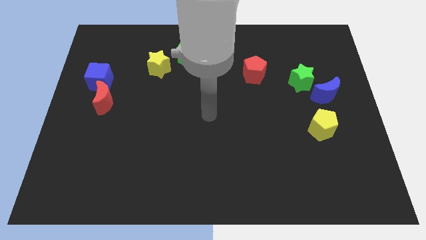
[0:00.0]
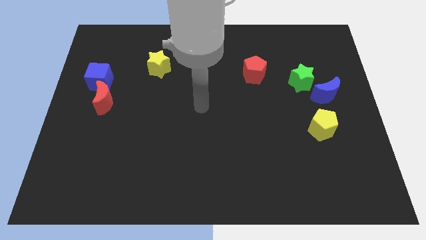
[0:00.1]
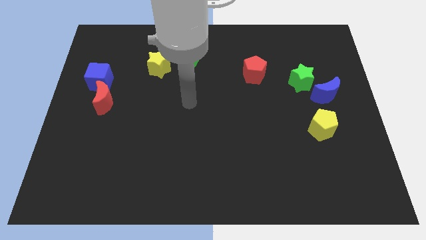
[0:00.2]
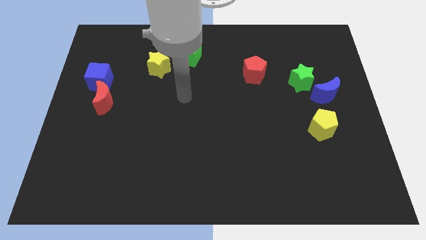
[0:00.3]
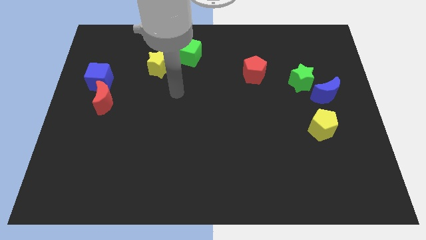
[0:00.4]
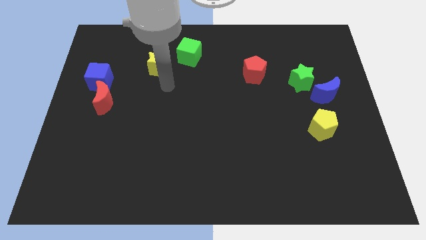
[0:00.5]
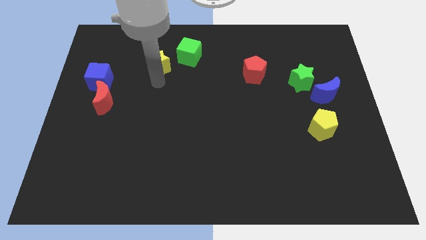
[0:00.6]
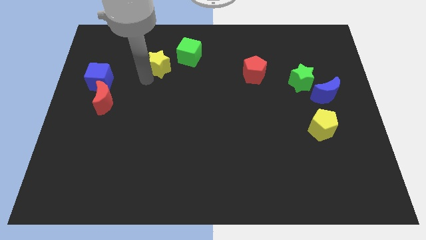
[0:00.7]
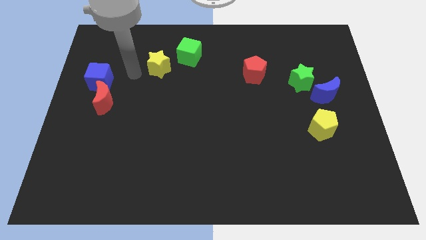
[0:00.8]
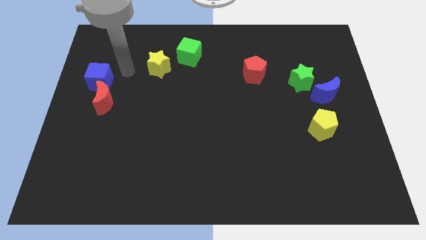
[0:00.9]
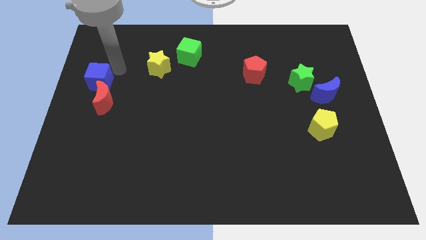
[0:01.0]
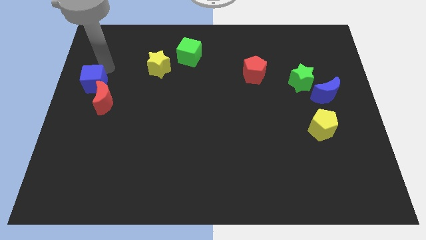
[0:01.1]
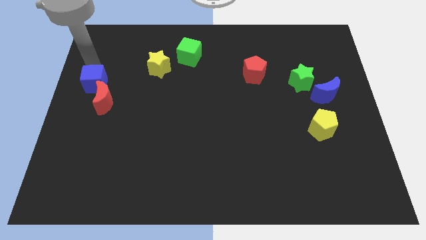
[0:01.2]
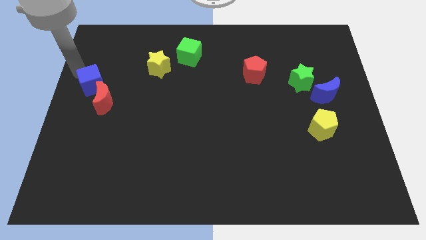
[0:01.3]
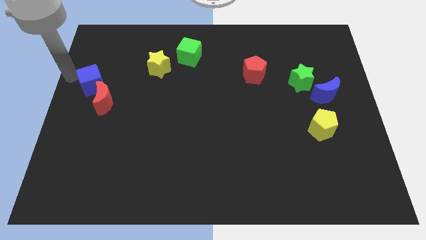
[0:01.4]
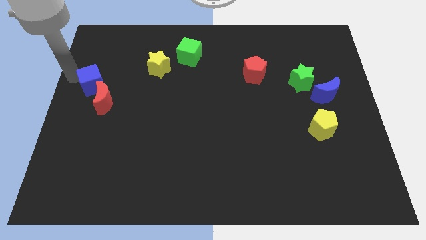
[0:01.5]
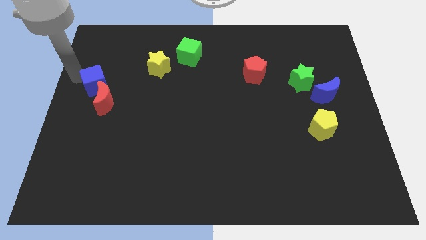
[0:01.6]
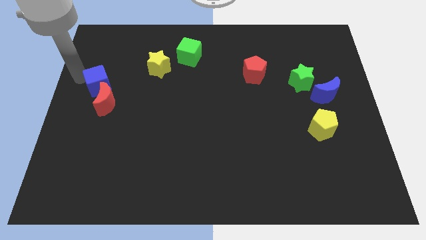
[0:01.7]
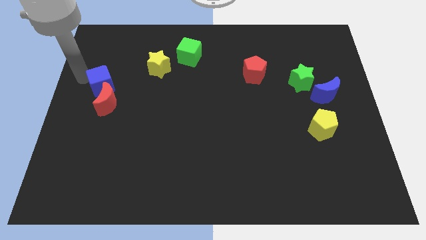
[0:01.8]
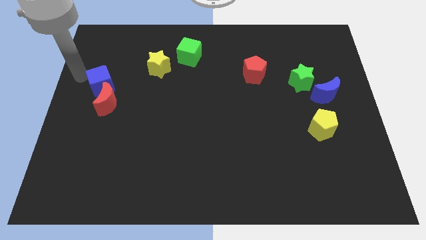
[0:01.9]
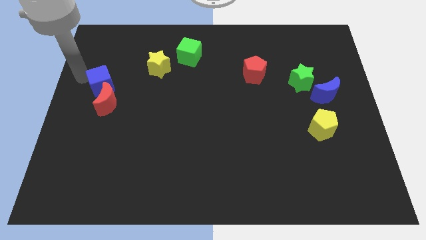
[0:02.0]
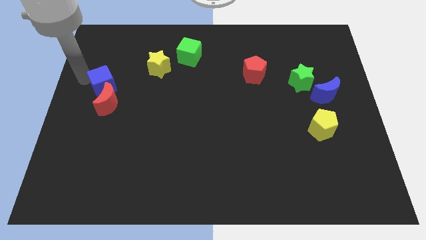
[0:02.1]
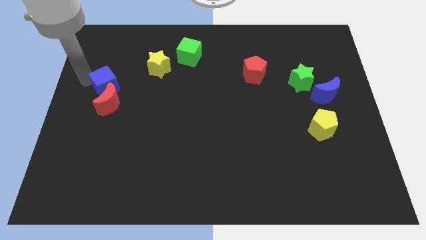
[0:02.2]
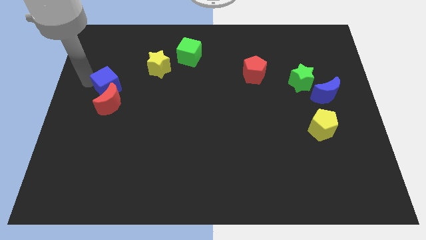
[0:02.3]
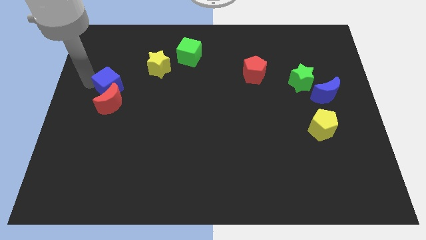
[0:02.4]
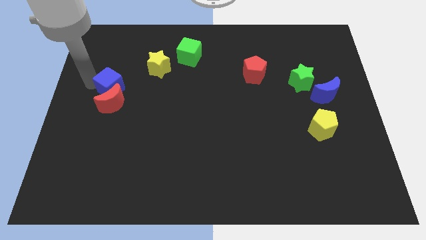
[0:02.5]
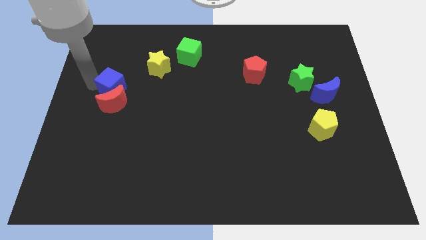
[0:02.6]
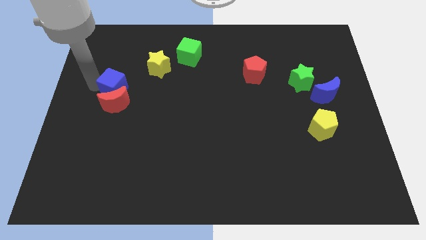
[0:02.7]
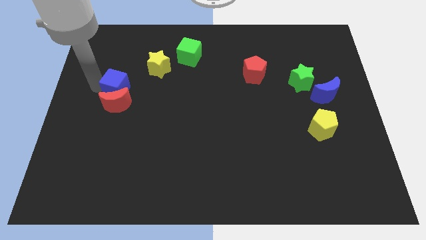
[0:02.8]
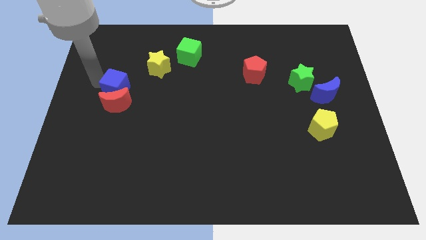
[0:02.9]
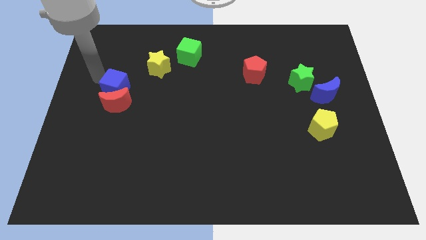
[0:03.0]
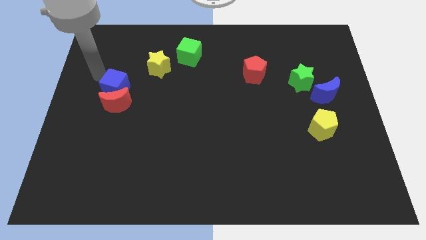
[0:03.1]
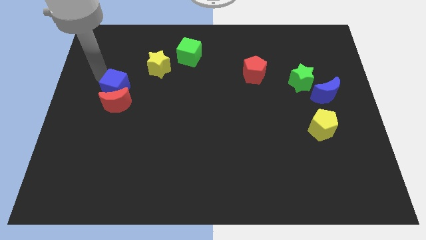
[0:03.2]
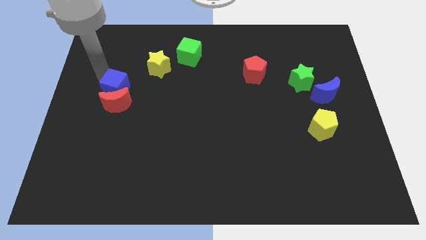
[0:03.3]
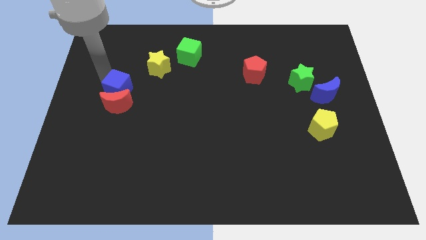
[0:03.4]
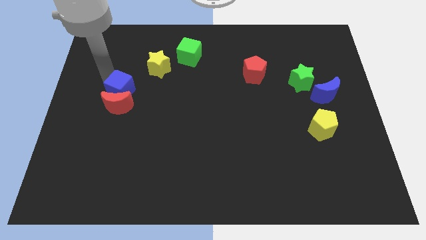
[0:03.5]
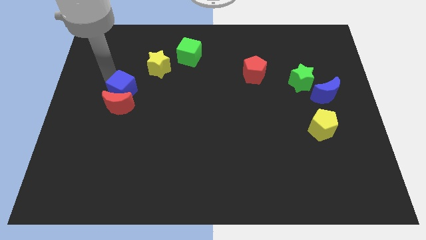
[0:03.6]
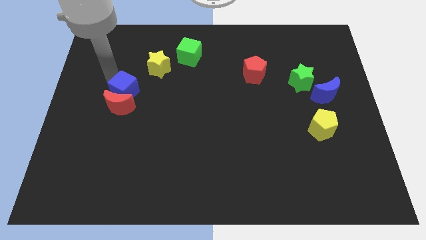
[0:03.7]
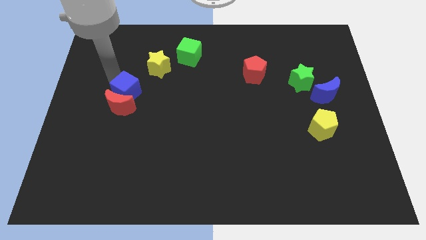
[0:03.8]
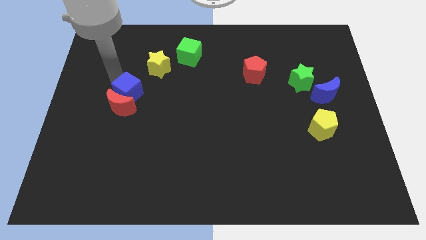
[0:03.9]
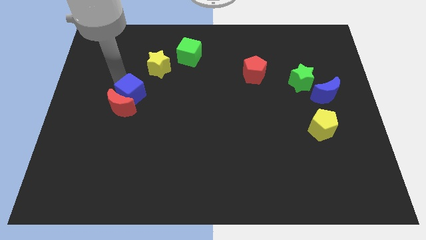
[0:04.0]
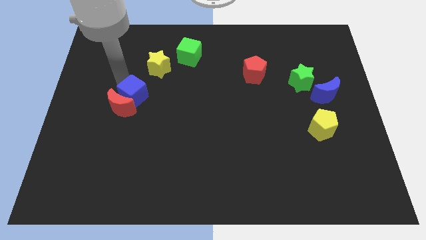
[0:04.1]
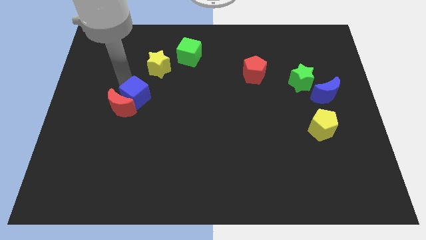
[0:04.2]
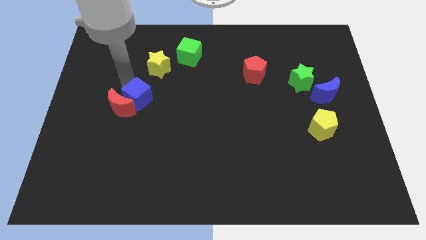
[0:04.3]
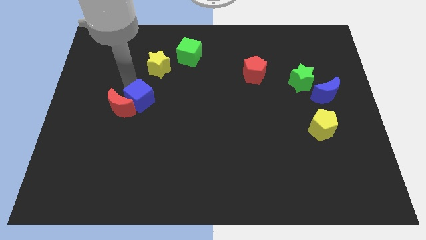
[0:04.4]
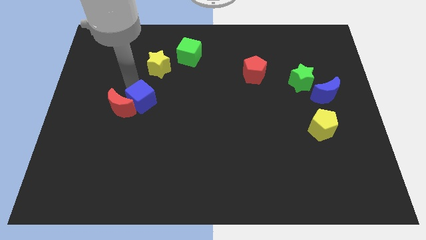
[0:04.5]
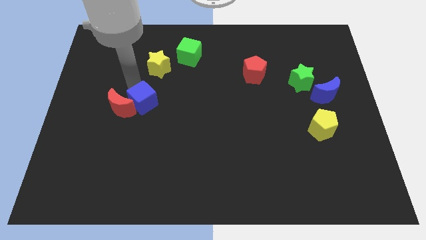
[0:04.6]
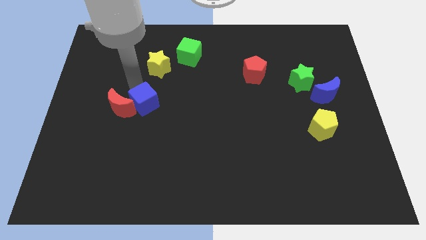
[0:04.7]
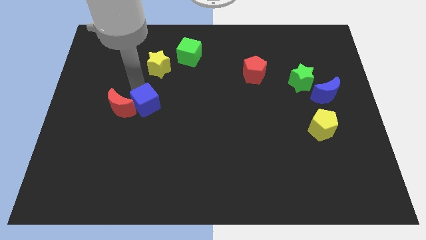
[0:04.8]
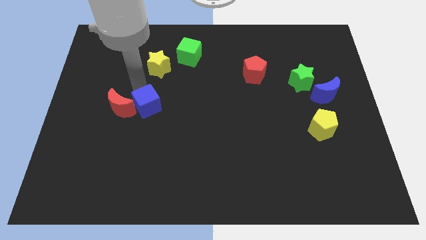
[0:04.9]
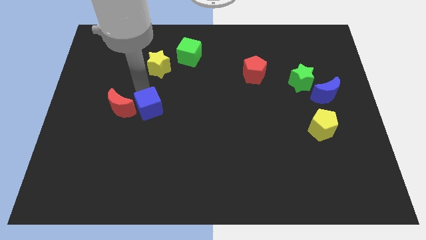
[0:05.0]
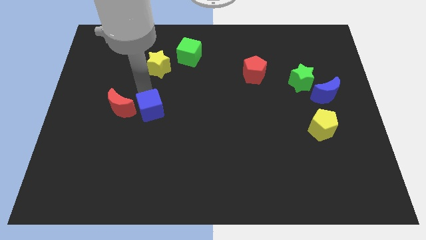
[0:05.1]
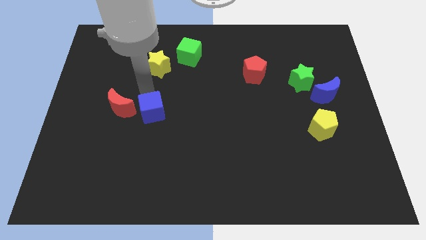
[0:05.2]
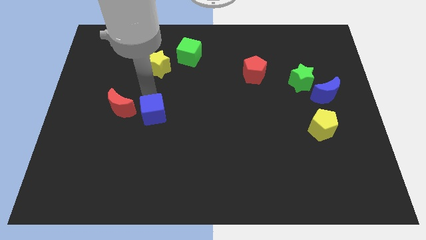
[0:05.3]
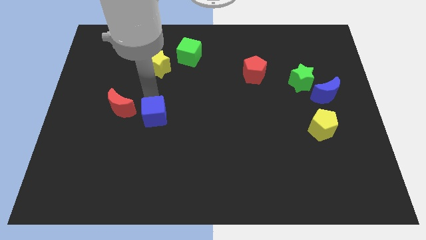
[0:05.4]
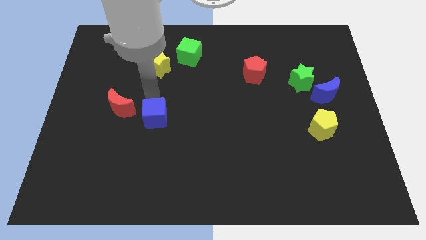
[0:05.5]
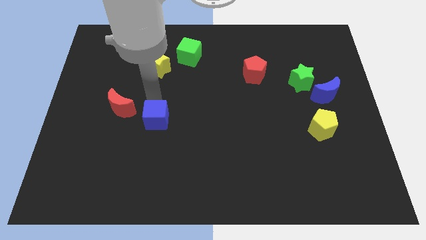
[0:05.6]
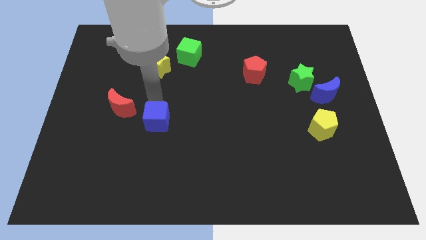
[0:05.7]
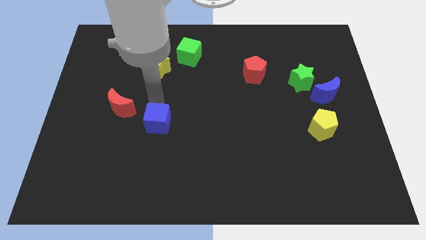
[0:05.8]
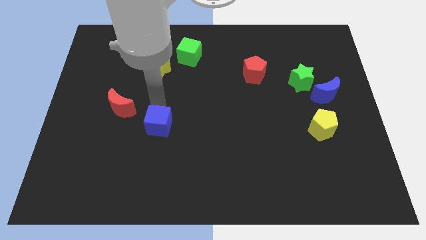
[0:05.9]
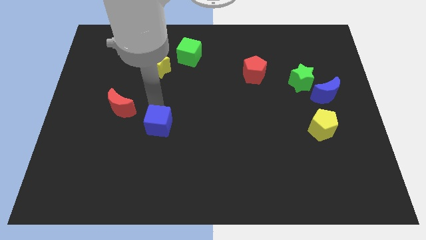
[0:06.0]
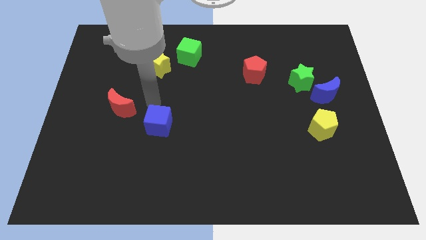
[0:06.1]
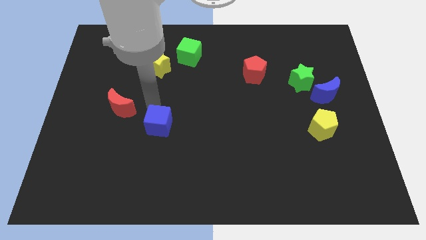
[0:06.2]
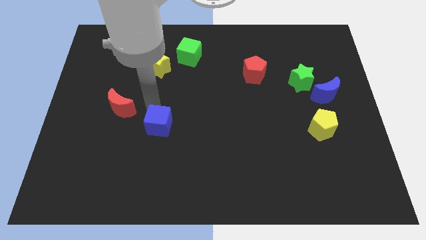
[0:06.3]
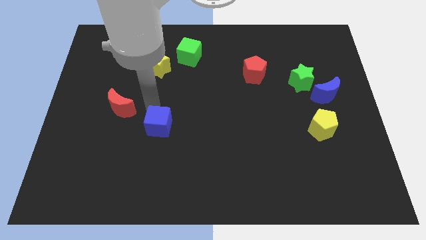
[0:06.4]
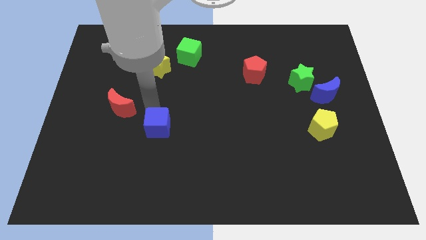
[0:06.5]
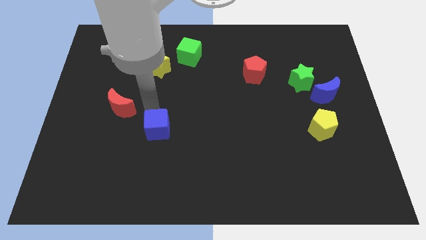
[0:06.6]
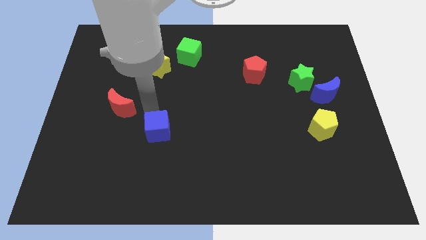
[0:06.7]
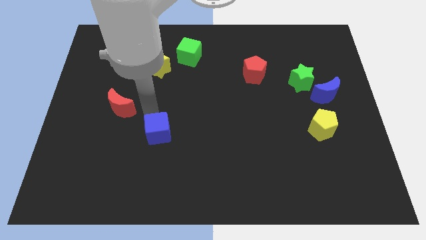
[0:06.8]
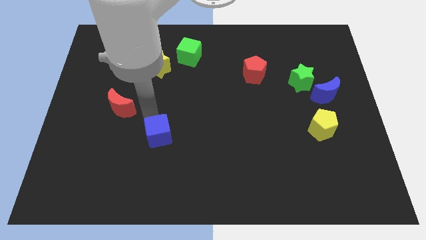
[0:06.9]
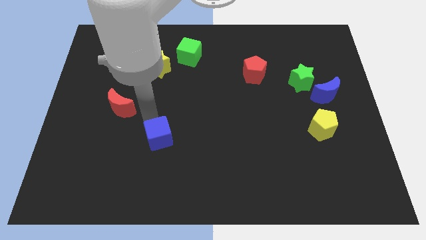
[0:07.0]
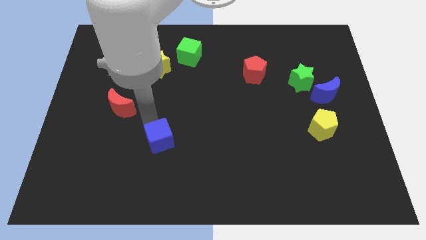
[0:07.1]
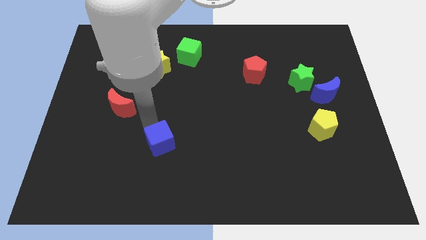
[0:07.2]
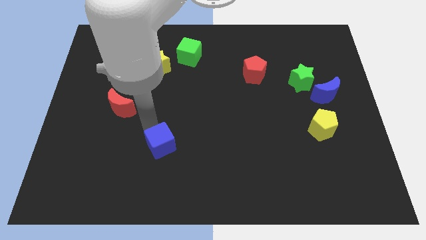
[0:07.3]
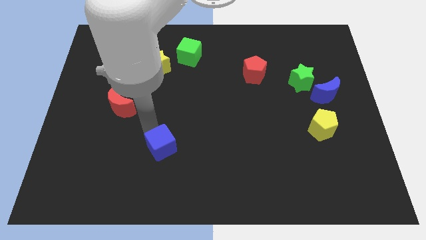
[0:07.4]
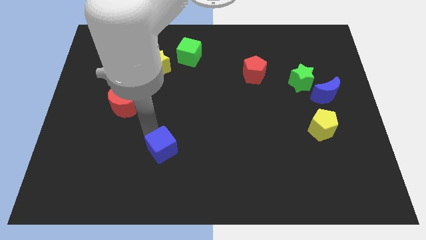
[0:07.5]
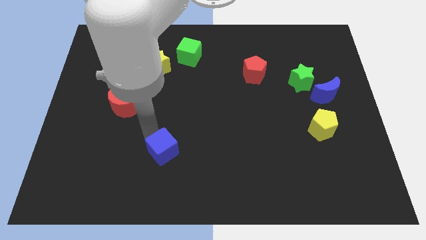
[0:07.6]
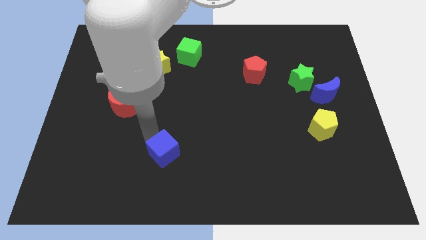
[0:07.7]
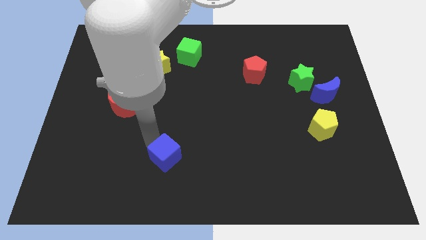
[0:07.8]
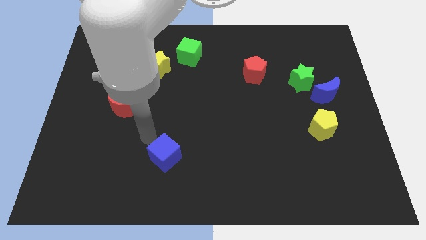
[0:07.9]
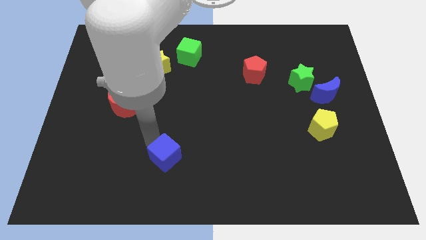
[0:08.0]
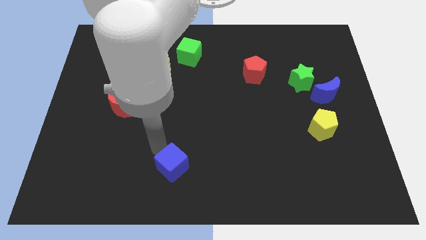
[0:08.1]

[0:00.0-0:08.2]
push the blue cube to the bottom
